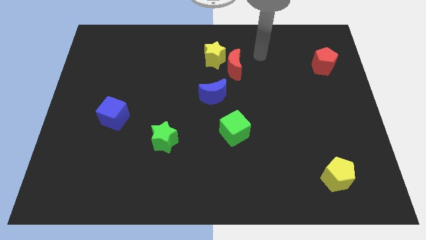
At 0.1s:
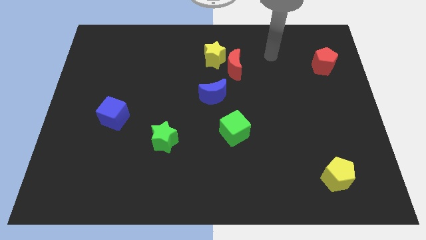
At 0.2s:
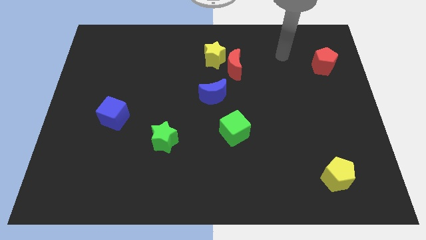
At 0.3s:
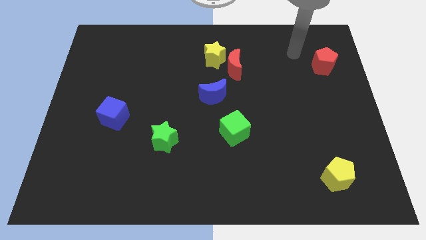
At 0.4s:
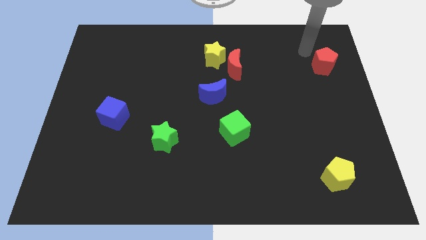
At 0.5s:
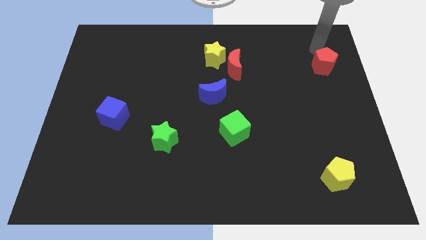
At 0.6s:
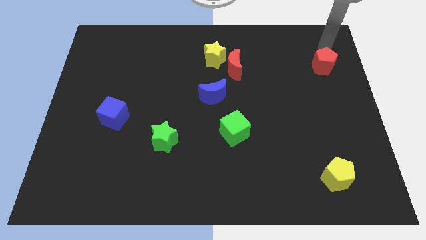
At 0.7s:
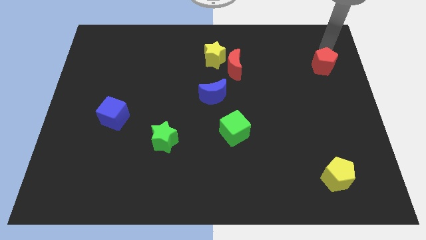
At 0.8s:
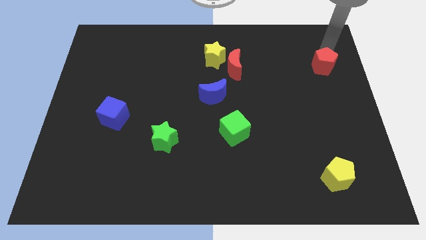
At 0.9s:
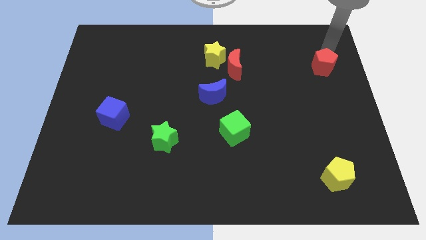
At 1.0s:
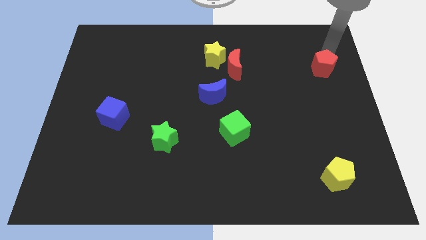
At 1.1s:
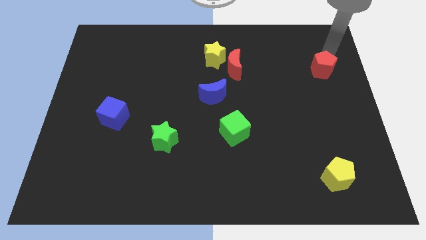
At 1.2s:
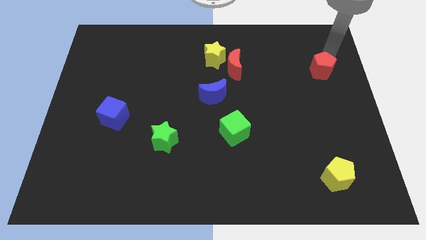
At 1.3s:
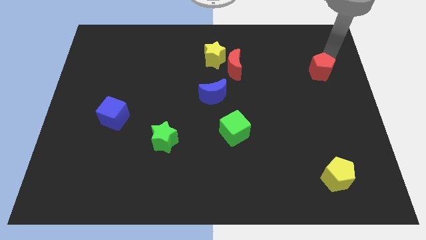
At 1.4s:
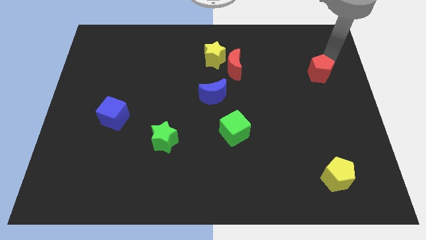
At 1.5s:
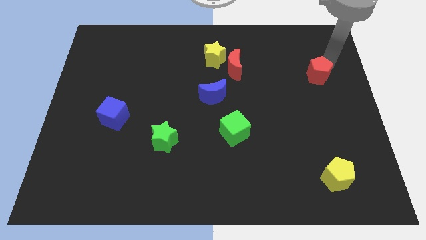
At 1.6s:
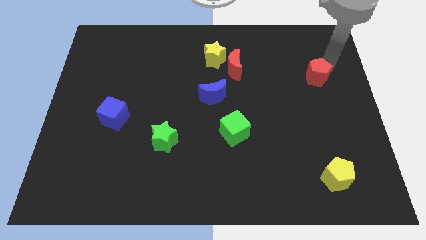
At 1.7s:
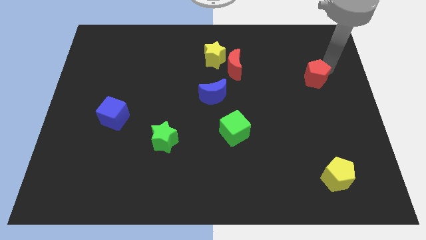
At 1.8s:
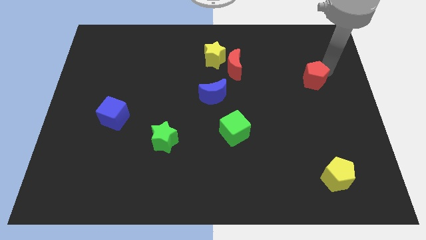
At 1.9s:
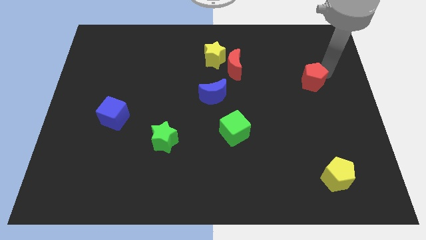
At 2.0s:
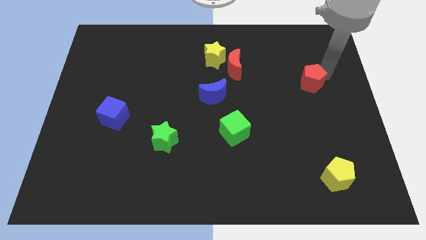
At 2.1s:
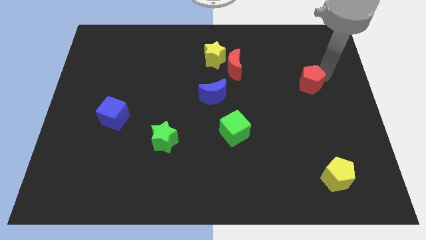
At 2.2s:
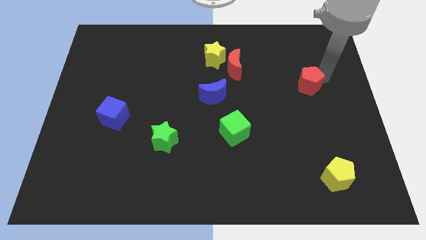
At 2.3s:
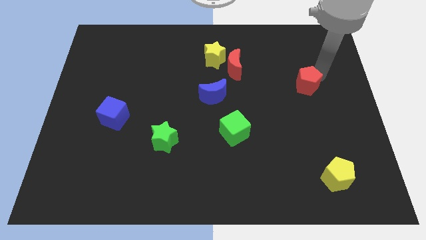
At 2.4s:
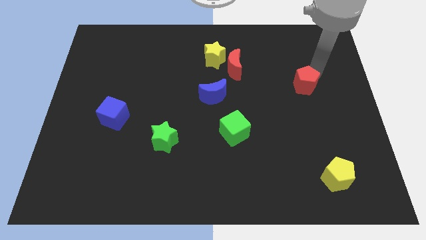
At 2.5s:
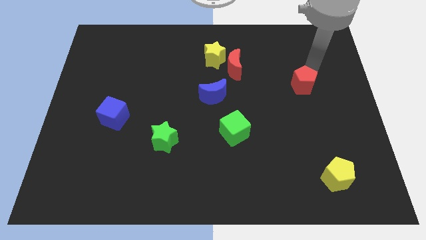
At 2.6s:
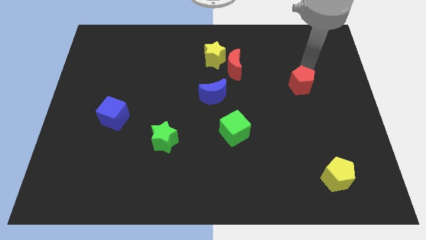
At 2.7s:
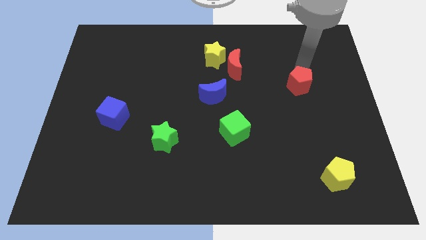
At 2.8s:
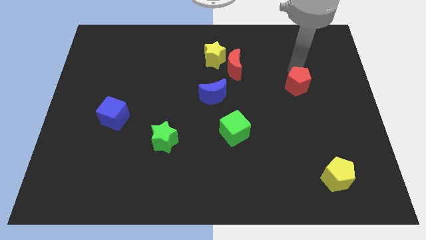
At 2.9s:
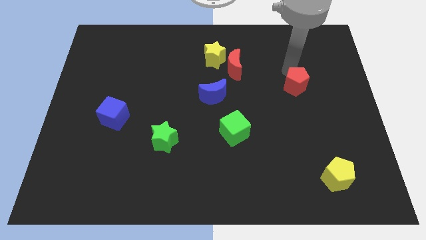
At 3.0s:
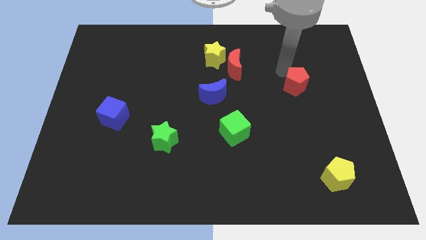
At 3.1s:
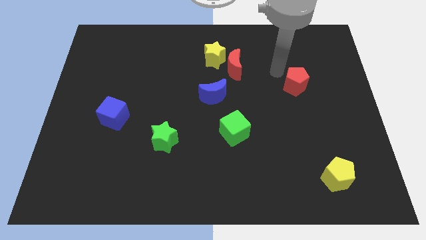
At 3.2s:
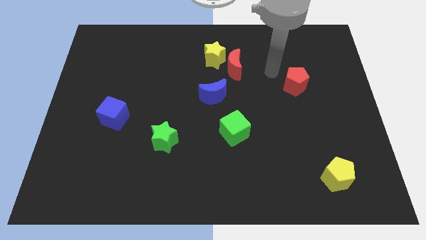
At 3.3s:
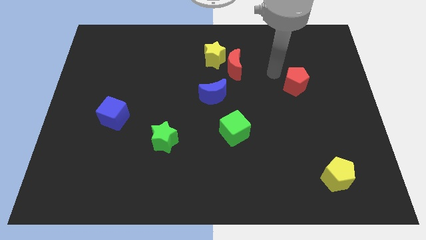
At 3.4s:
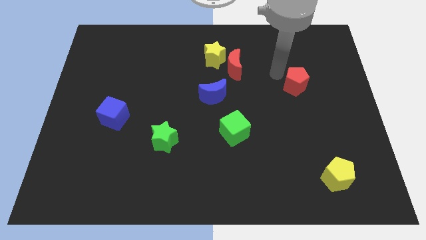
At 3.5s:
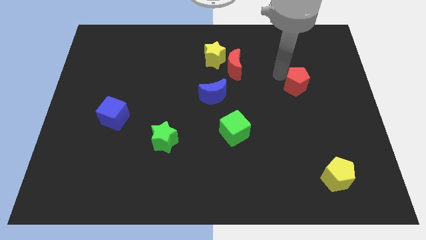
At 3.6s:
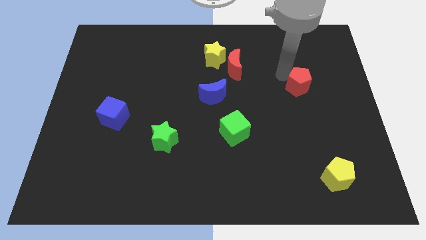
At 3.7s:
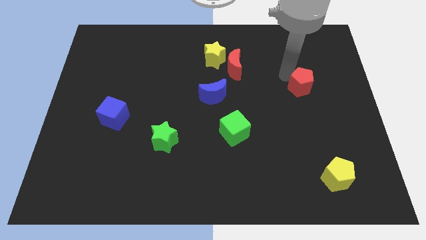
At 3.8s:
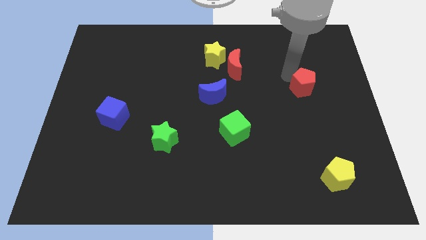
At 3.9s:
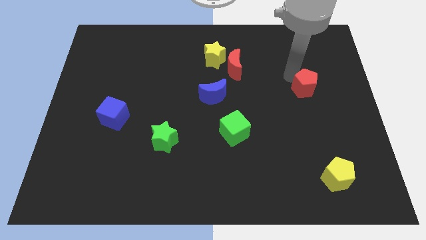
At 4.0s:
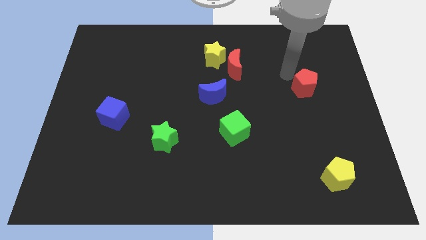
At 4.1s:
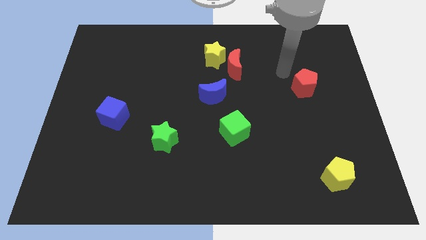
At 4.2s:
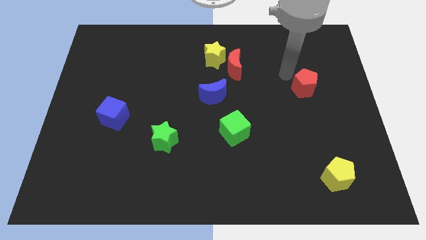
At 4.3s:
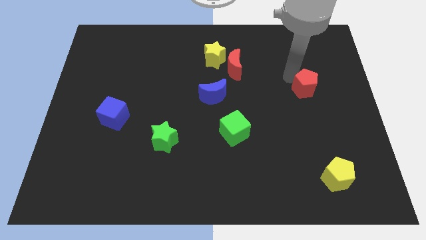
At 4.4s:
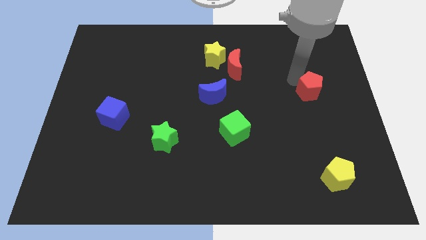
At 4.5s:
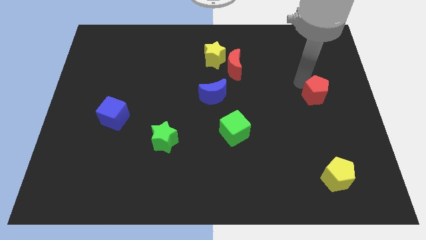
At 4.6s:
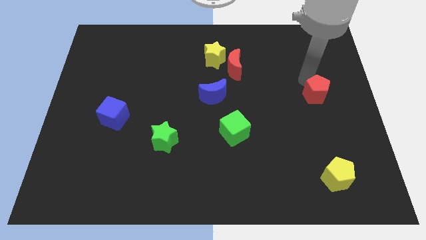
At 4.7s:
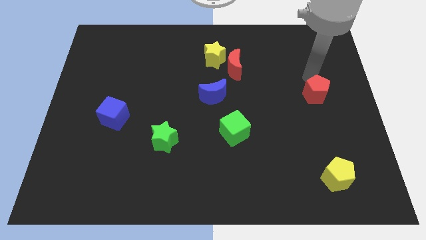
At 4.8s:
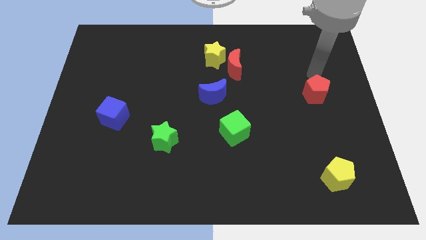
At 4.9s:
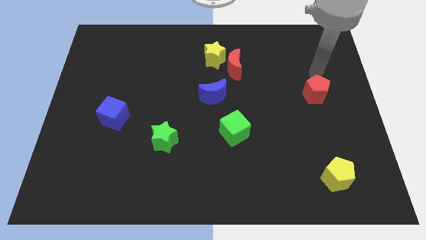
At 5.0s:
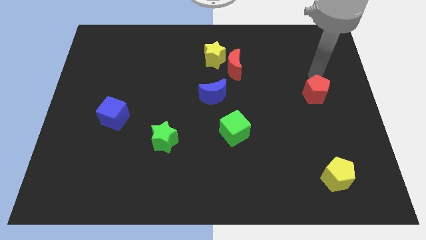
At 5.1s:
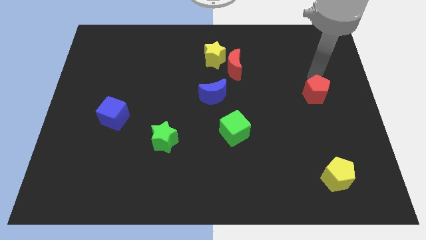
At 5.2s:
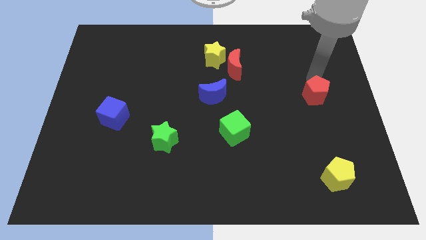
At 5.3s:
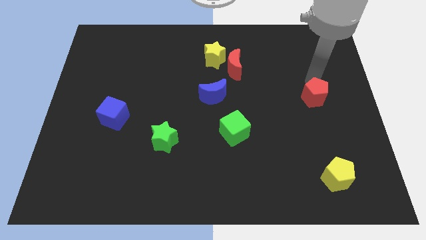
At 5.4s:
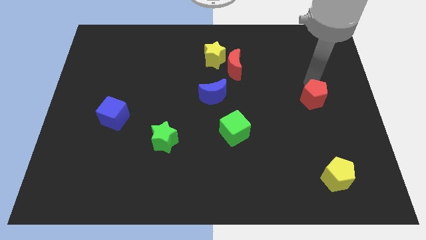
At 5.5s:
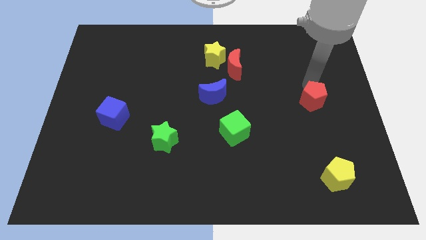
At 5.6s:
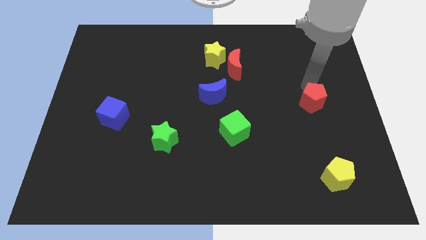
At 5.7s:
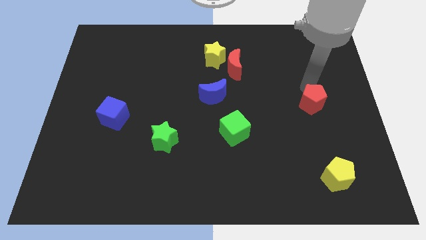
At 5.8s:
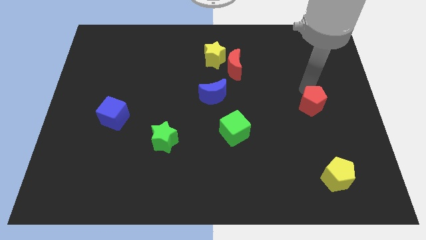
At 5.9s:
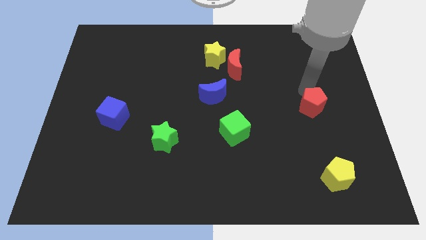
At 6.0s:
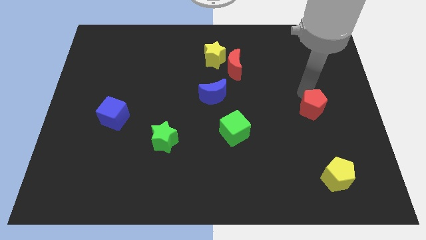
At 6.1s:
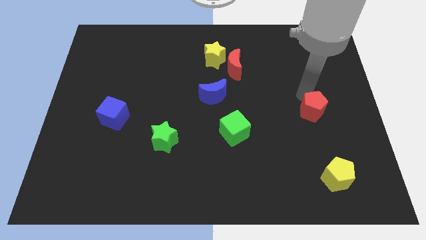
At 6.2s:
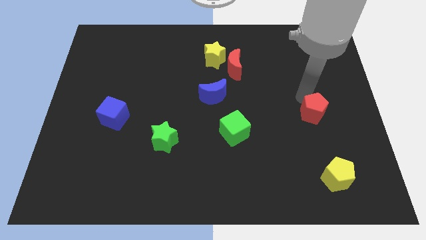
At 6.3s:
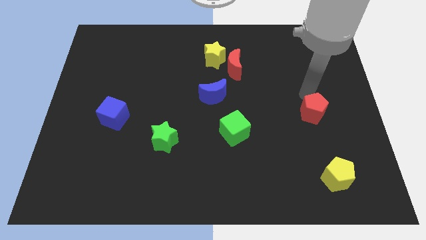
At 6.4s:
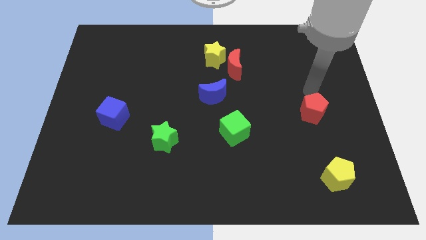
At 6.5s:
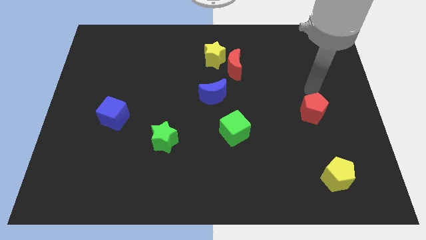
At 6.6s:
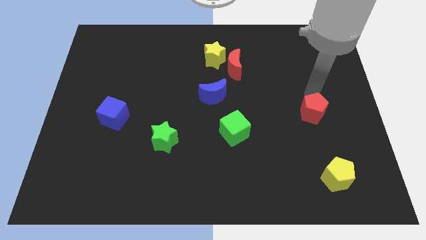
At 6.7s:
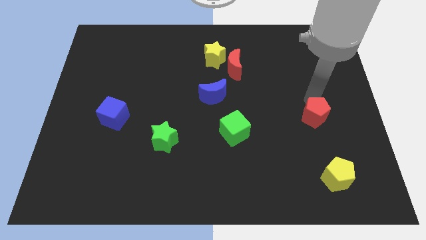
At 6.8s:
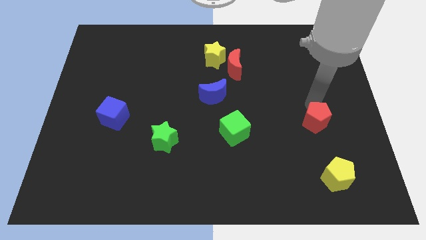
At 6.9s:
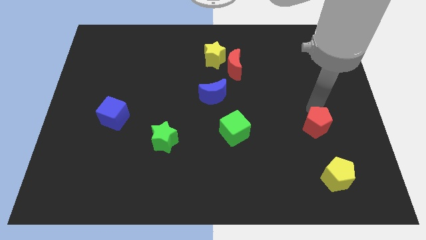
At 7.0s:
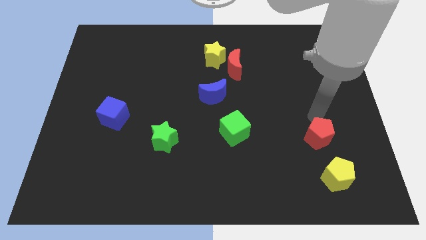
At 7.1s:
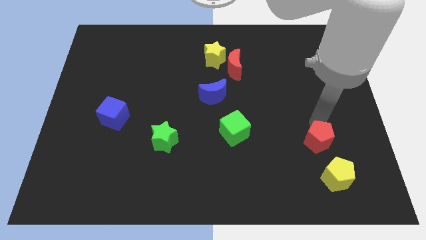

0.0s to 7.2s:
push the red pentagon diagonally up and to the left of the yellow pentagon

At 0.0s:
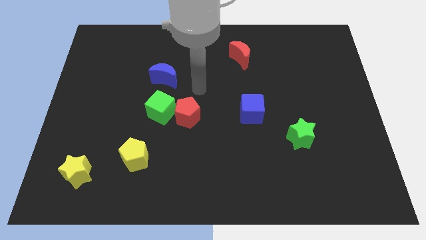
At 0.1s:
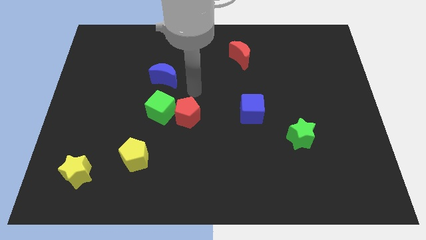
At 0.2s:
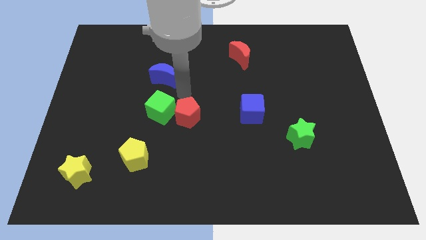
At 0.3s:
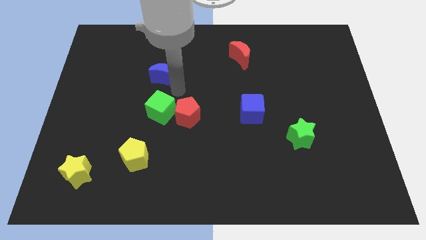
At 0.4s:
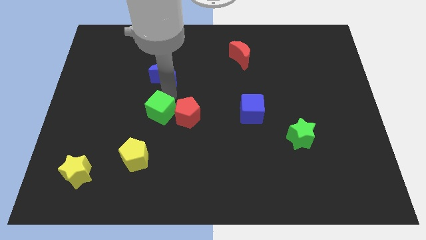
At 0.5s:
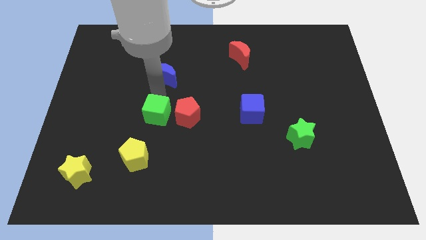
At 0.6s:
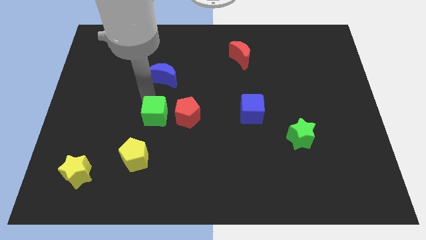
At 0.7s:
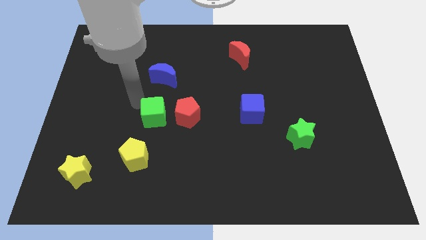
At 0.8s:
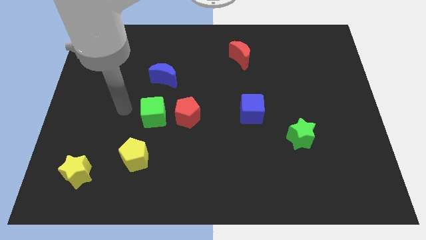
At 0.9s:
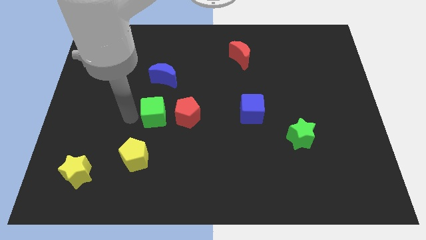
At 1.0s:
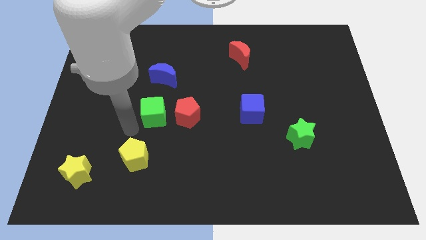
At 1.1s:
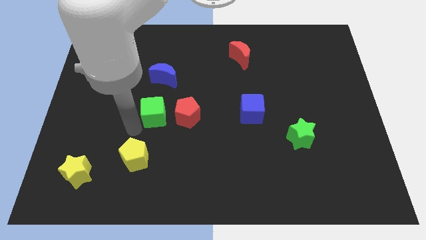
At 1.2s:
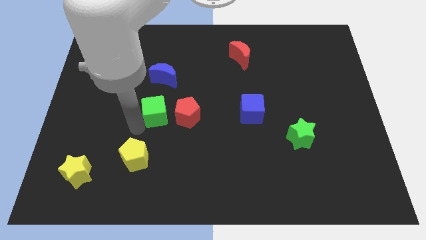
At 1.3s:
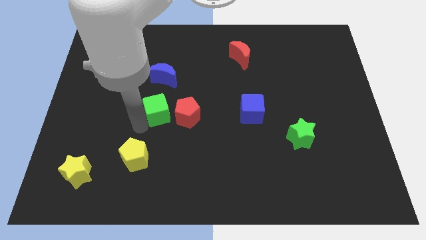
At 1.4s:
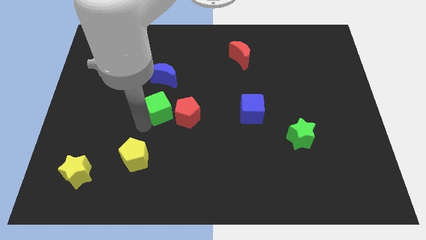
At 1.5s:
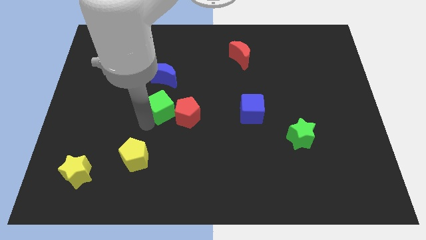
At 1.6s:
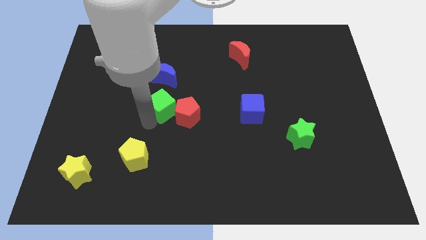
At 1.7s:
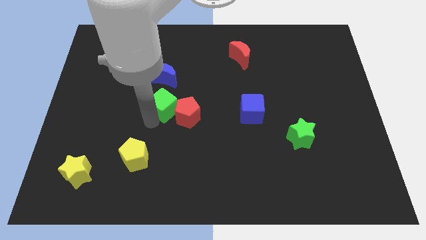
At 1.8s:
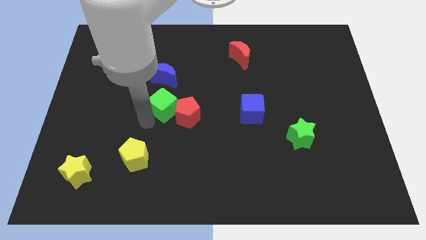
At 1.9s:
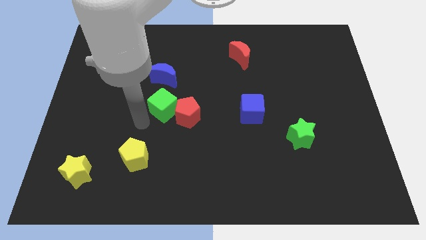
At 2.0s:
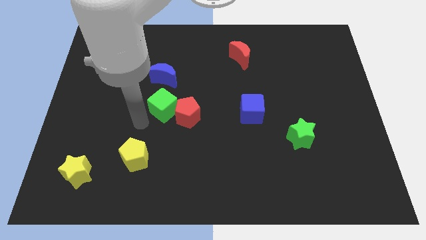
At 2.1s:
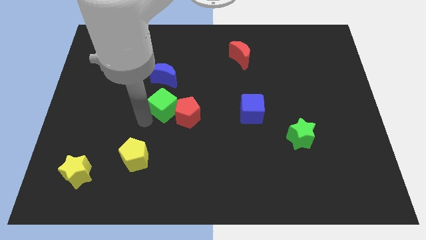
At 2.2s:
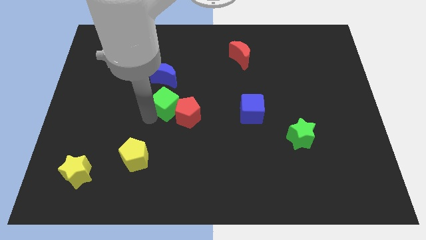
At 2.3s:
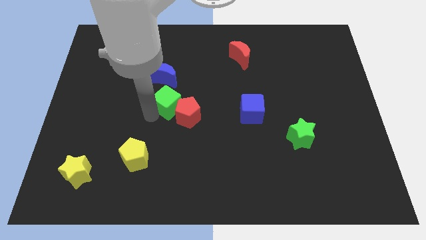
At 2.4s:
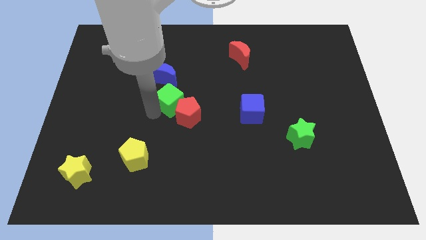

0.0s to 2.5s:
slide the green cube to the top of the red pentagon
